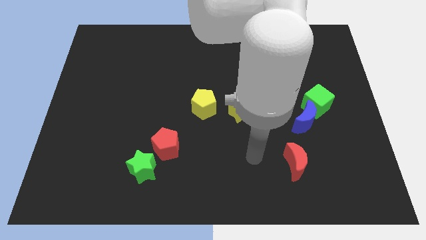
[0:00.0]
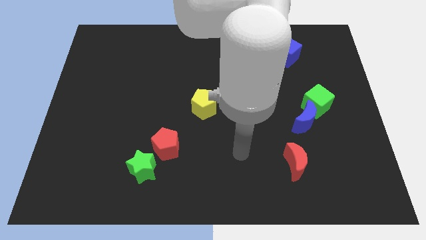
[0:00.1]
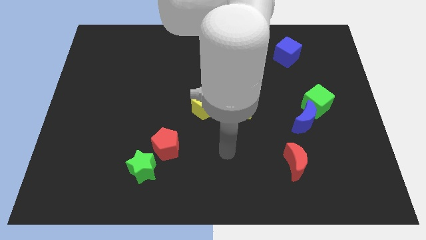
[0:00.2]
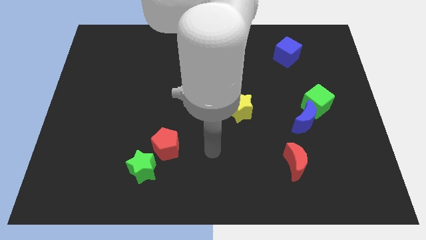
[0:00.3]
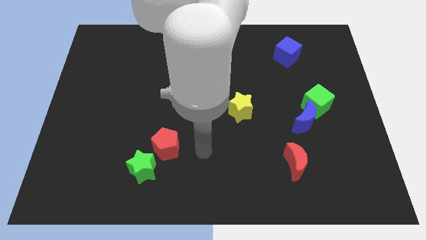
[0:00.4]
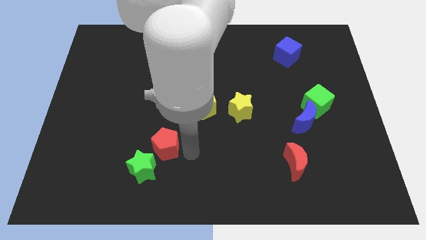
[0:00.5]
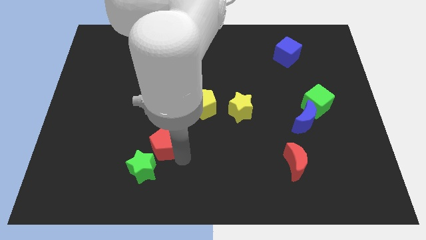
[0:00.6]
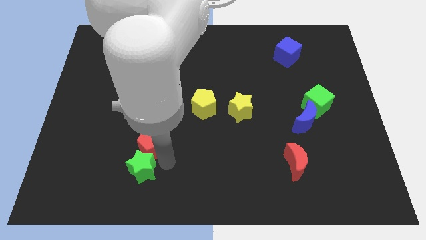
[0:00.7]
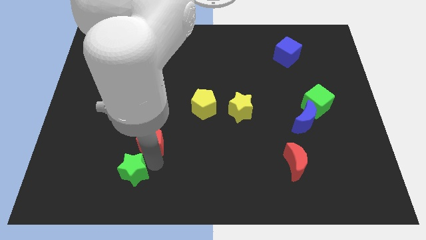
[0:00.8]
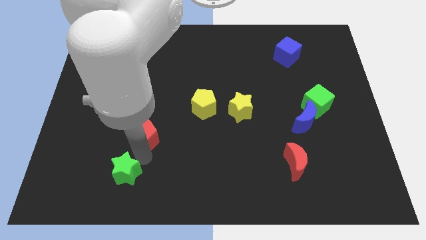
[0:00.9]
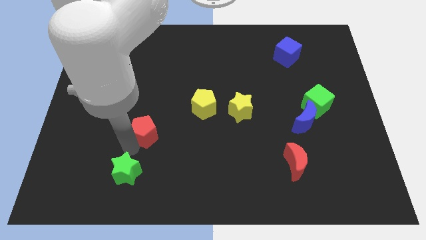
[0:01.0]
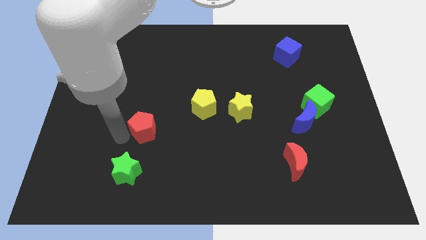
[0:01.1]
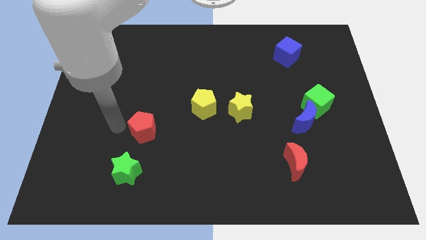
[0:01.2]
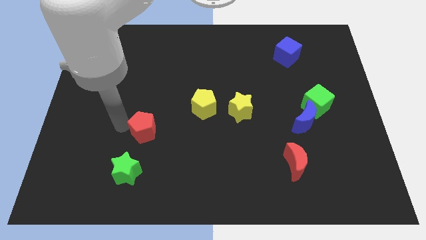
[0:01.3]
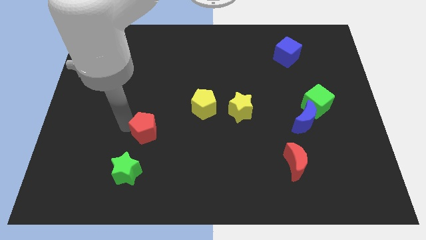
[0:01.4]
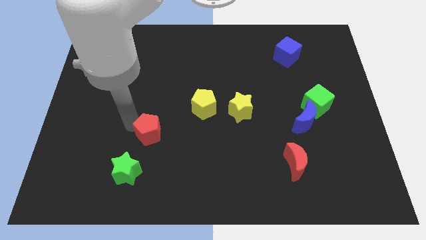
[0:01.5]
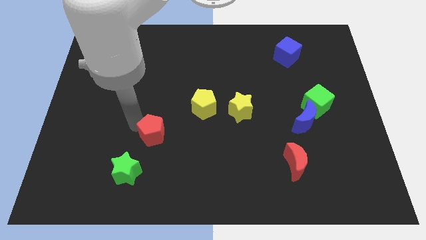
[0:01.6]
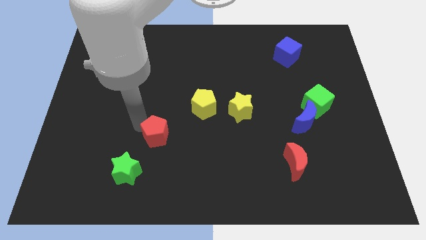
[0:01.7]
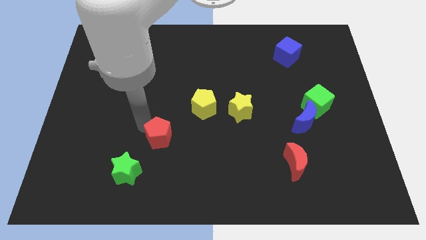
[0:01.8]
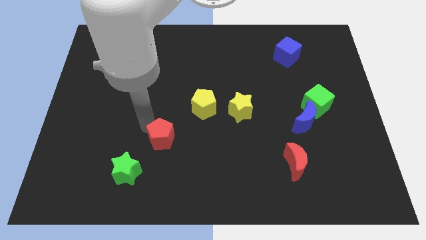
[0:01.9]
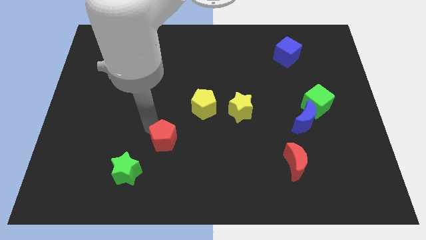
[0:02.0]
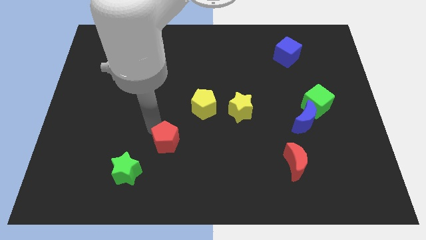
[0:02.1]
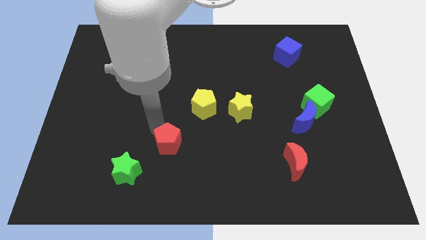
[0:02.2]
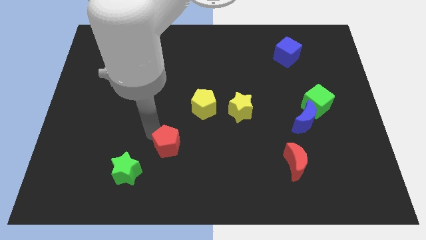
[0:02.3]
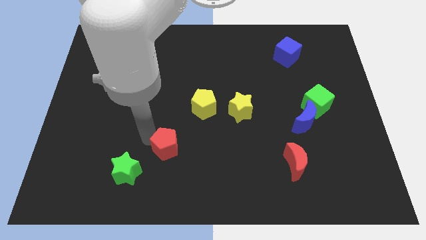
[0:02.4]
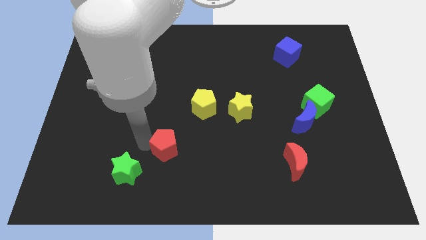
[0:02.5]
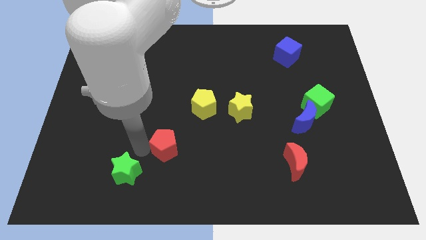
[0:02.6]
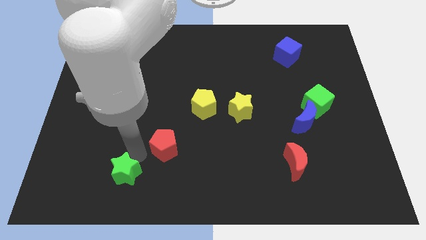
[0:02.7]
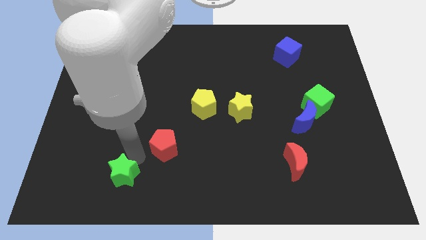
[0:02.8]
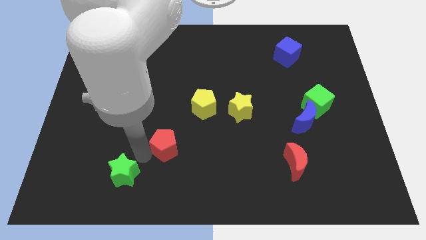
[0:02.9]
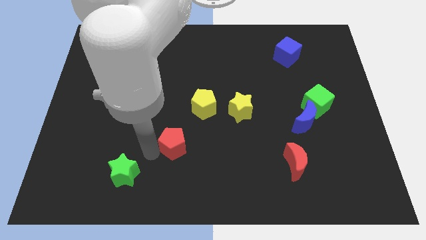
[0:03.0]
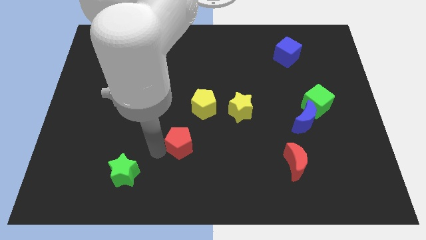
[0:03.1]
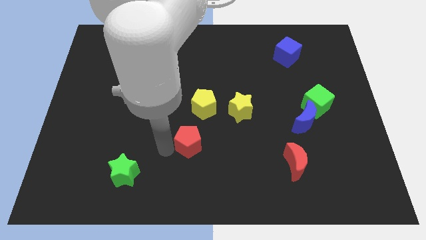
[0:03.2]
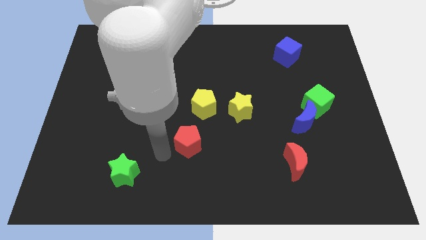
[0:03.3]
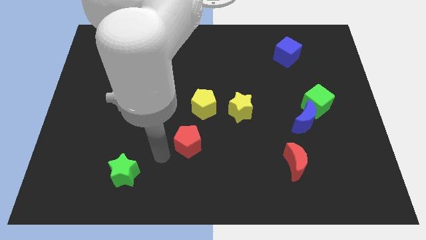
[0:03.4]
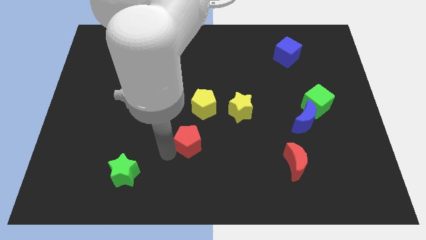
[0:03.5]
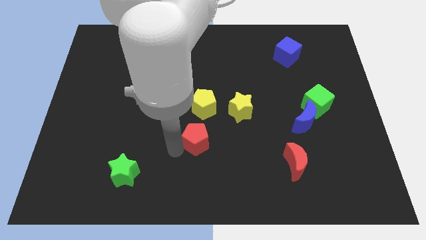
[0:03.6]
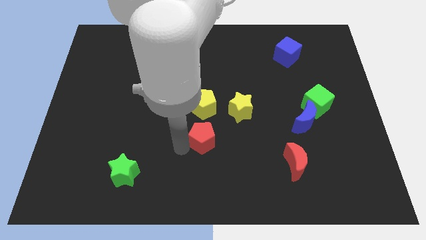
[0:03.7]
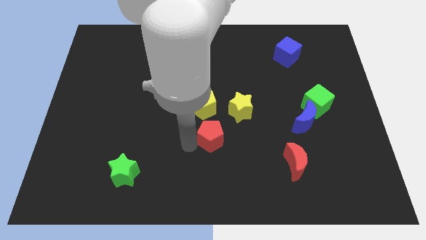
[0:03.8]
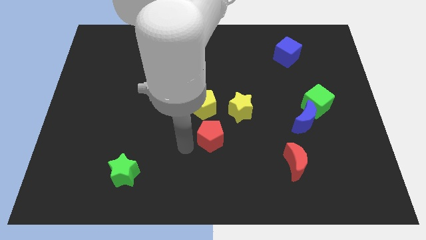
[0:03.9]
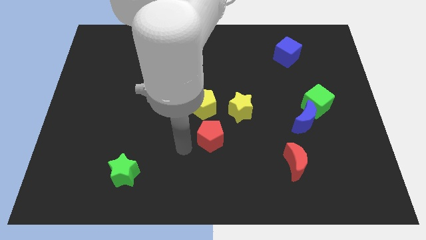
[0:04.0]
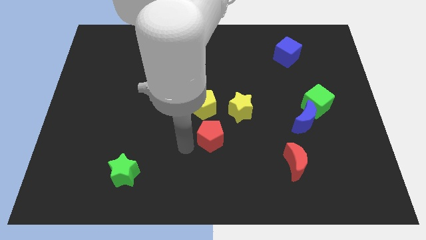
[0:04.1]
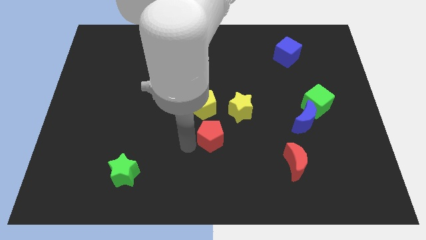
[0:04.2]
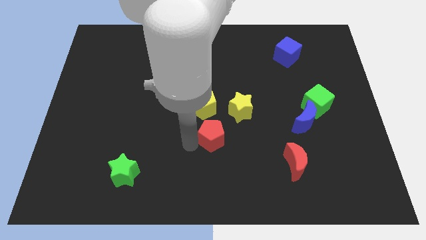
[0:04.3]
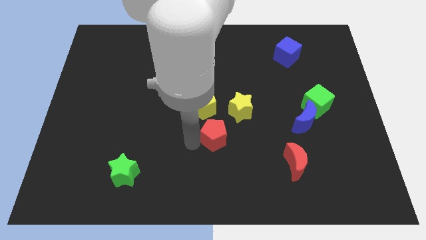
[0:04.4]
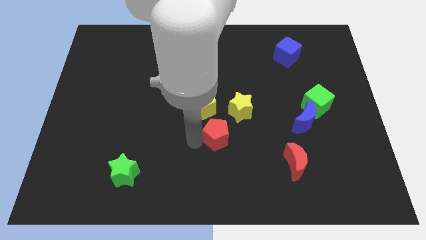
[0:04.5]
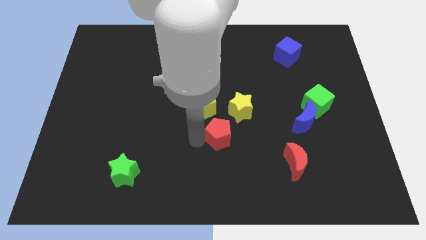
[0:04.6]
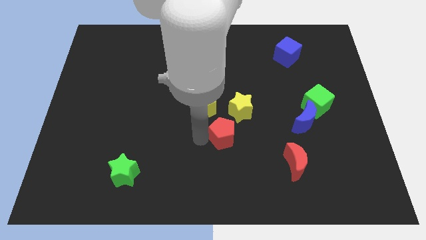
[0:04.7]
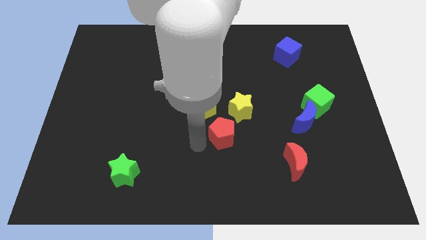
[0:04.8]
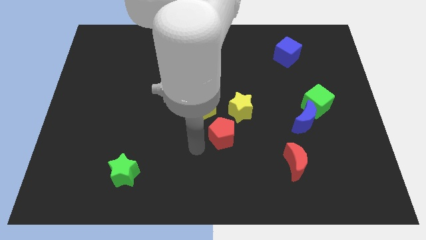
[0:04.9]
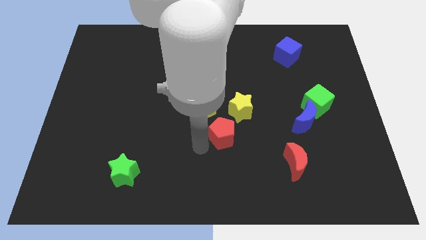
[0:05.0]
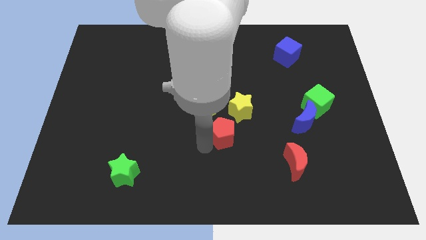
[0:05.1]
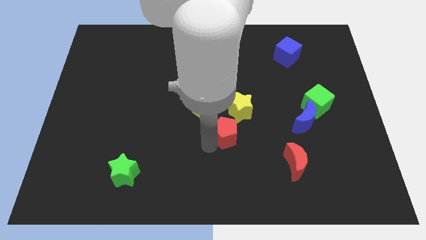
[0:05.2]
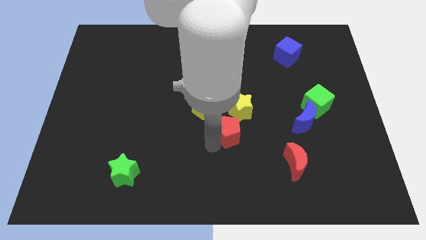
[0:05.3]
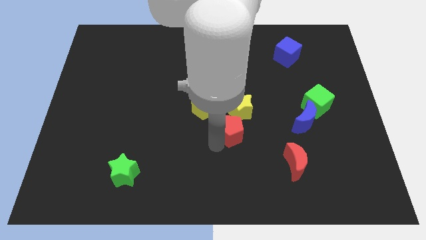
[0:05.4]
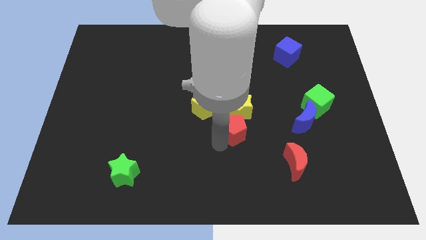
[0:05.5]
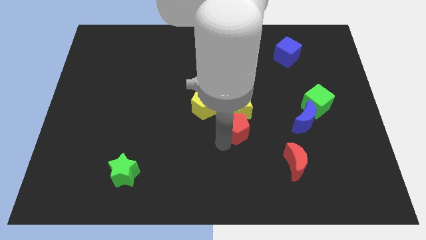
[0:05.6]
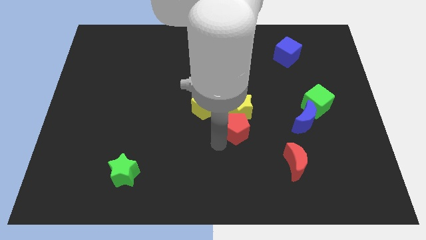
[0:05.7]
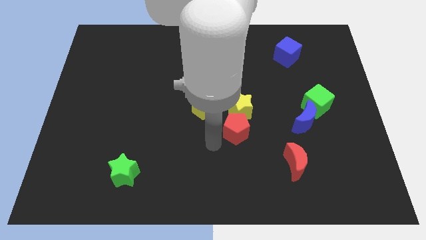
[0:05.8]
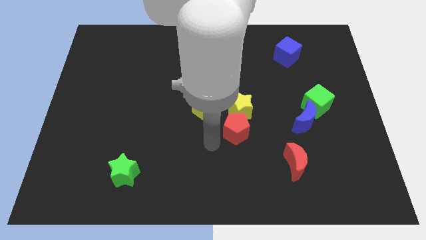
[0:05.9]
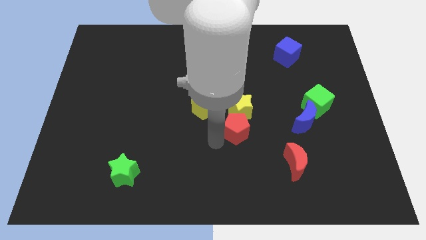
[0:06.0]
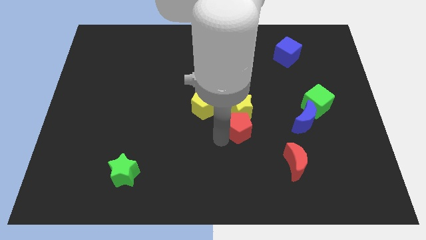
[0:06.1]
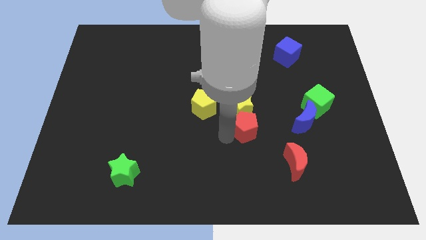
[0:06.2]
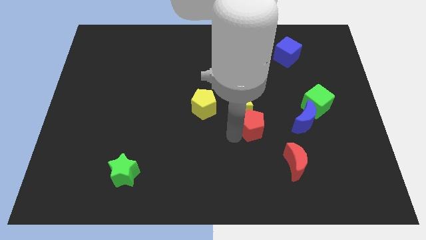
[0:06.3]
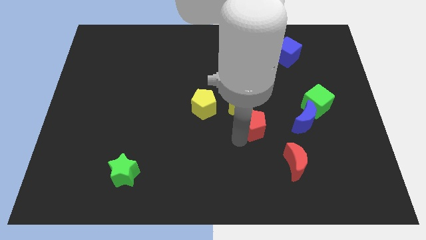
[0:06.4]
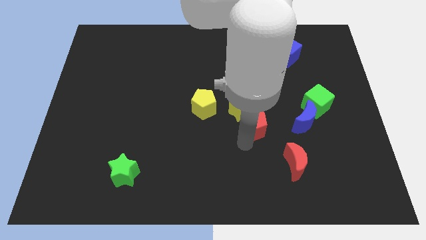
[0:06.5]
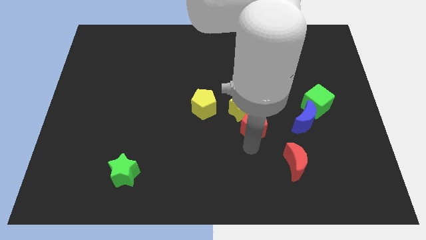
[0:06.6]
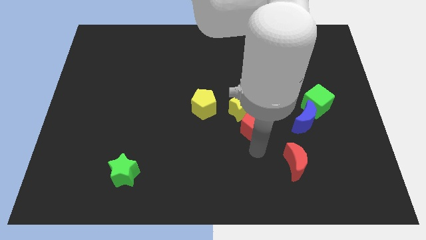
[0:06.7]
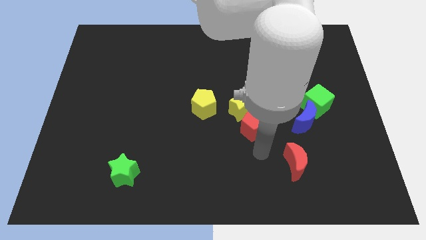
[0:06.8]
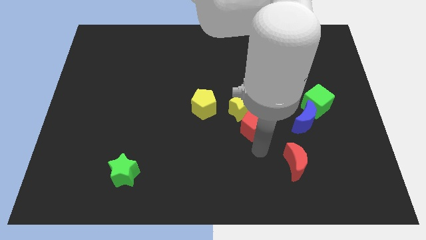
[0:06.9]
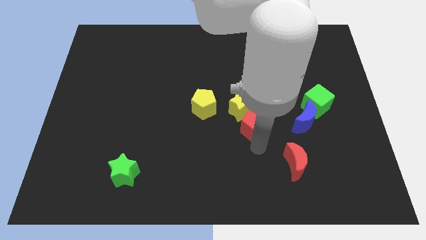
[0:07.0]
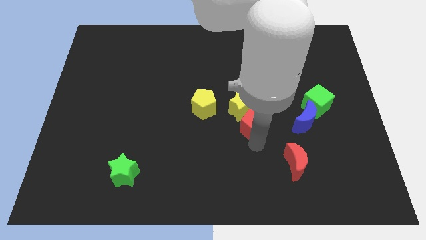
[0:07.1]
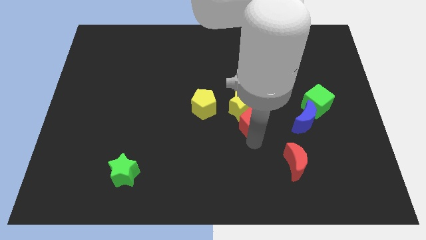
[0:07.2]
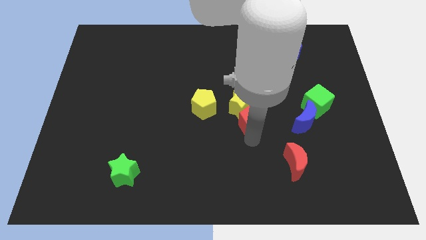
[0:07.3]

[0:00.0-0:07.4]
push the red pentagon to the right side of the yellow pentagon
